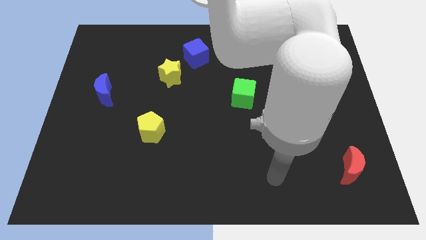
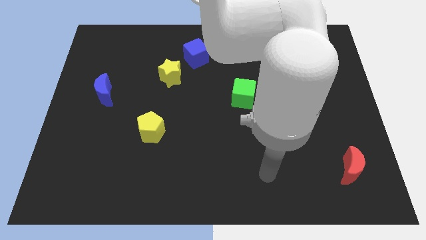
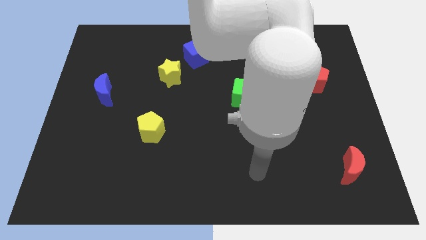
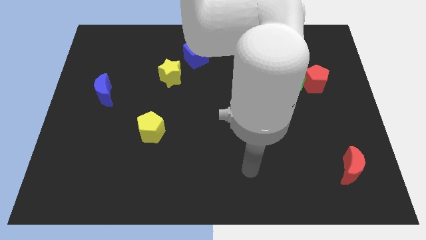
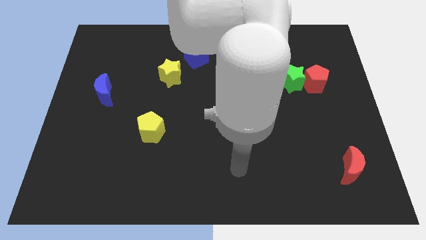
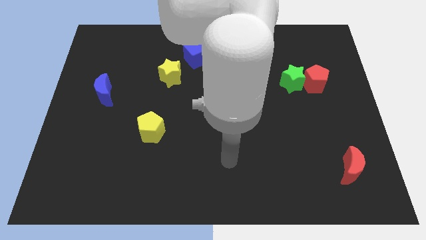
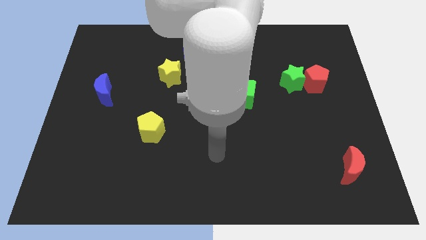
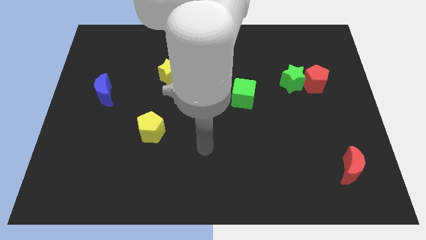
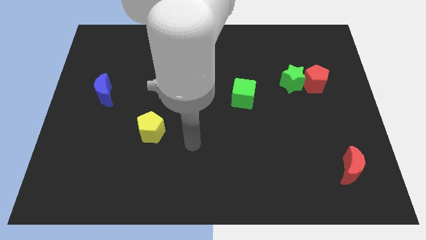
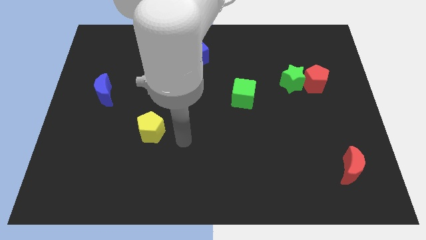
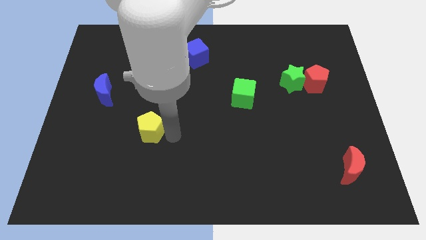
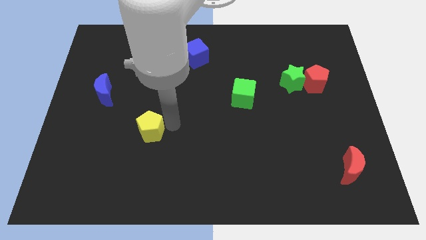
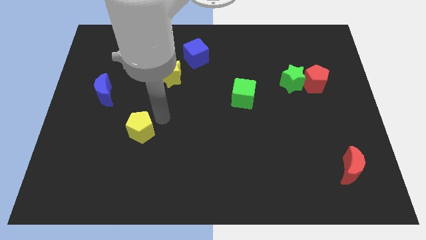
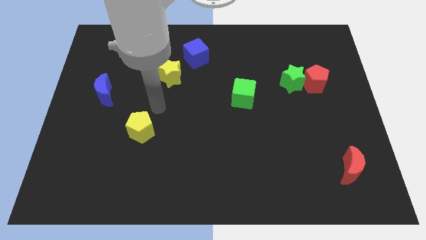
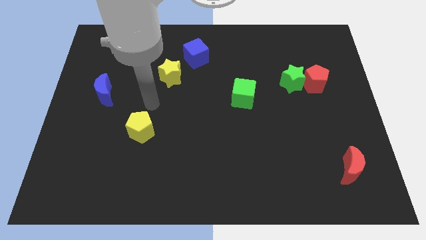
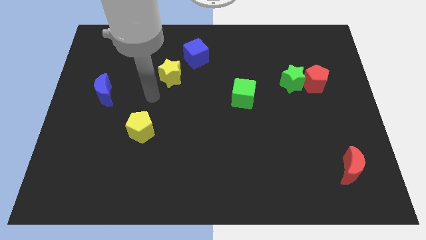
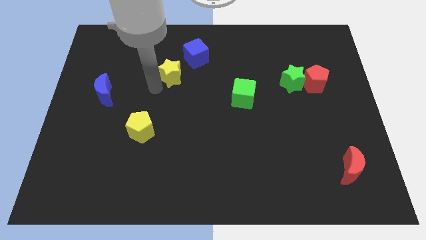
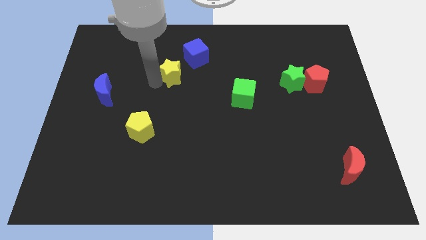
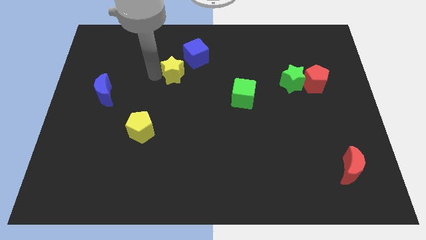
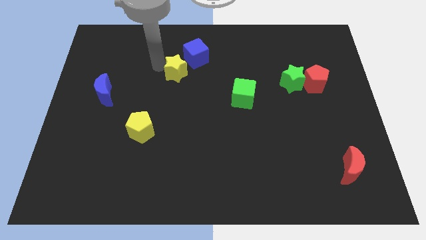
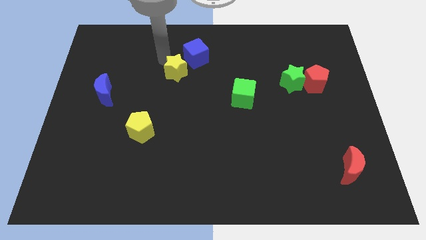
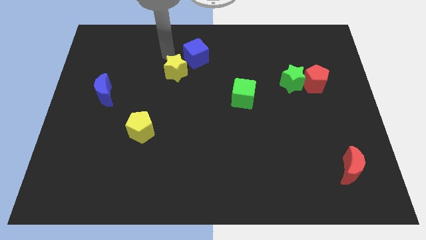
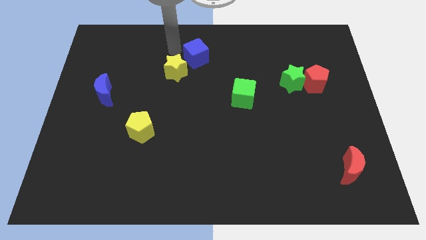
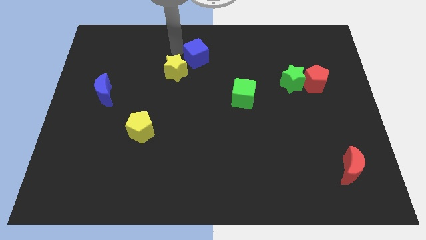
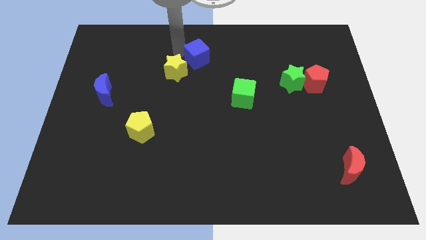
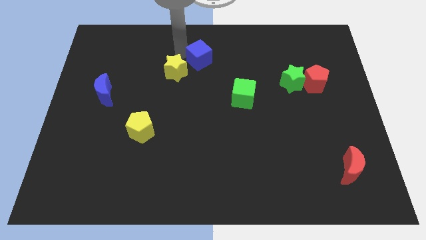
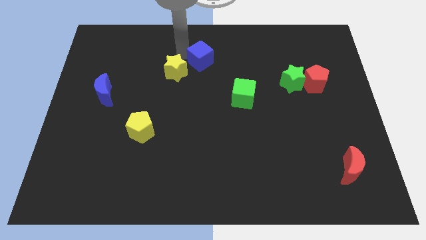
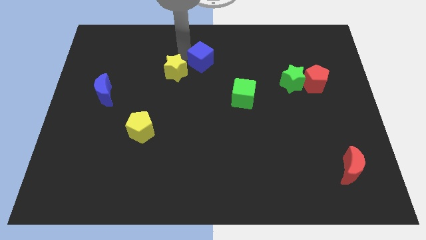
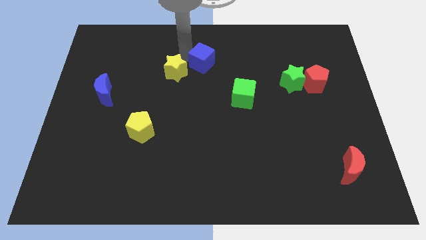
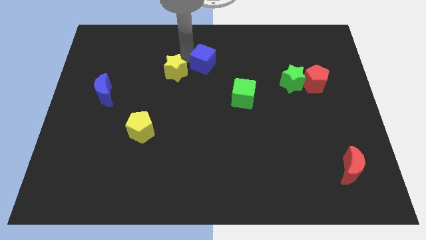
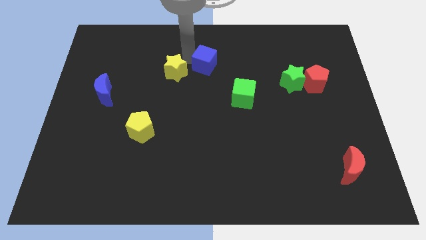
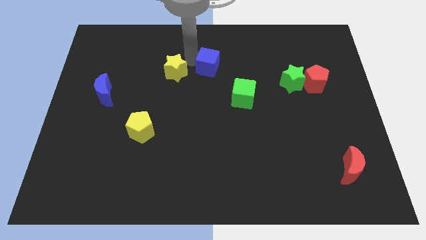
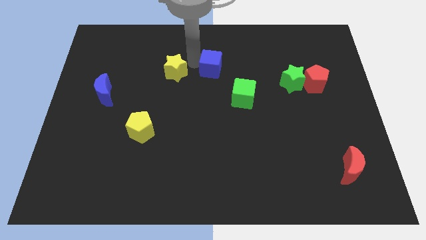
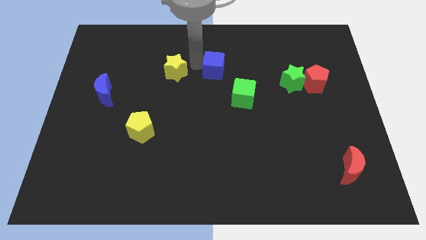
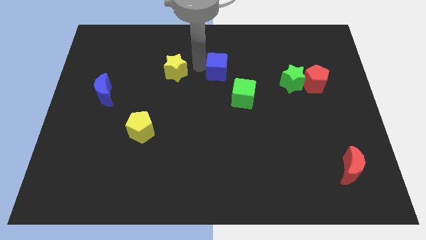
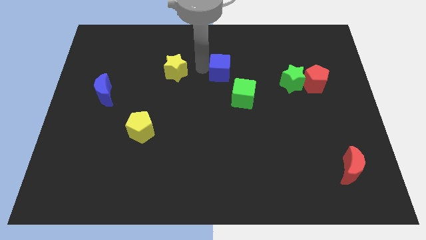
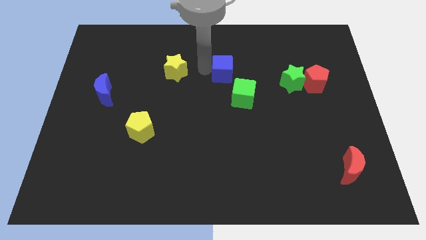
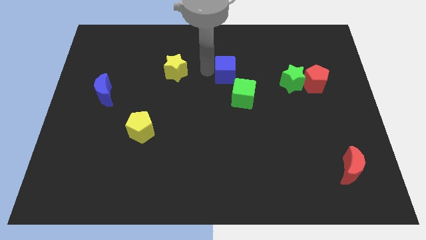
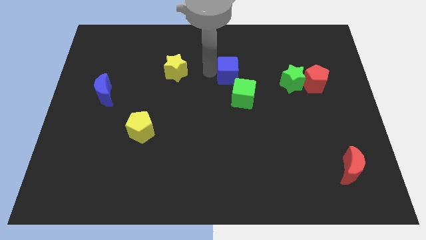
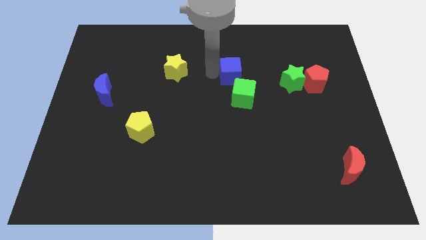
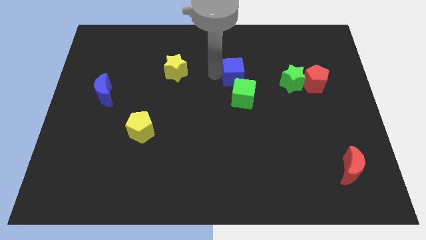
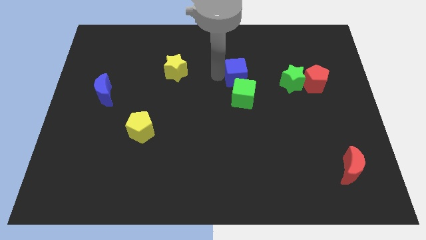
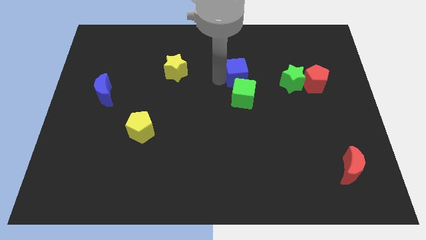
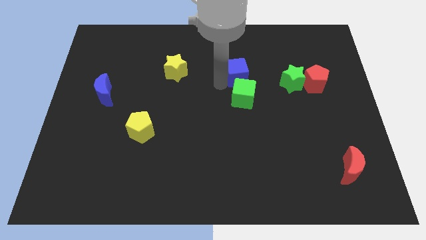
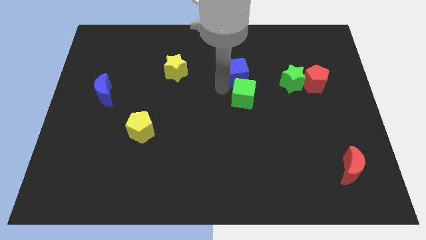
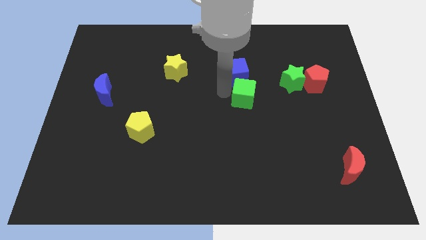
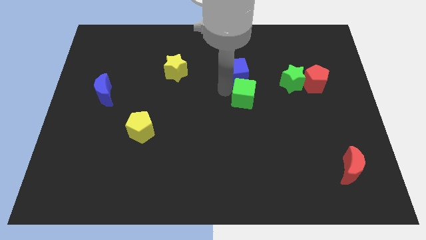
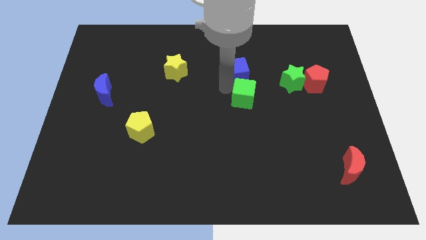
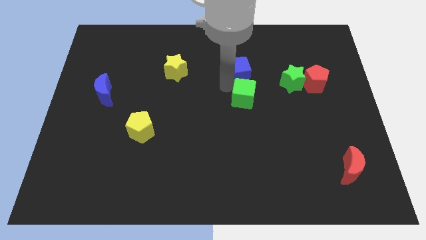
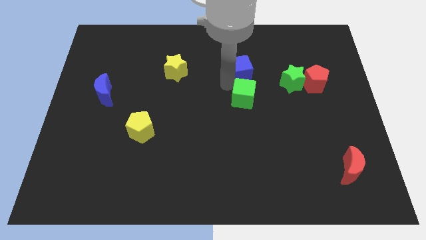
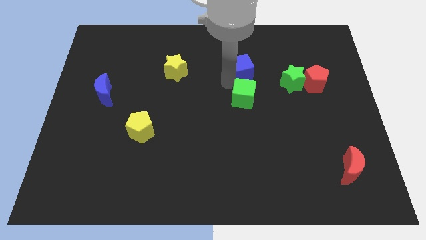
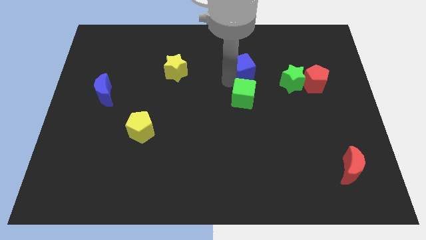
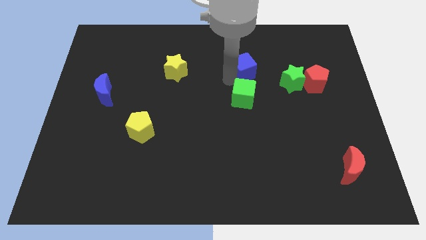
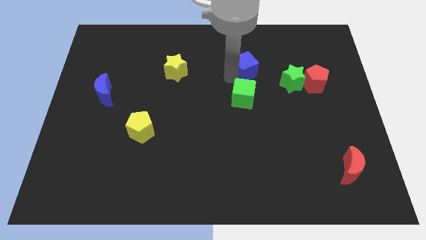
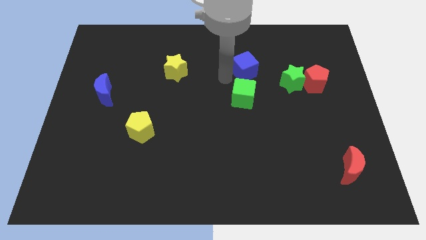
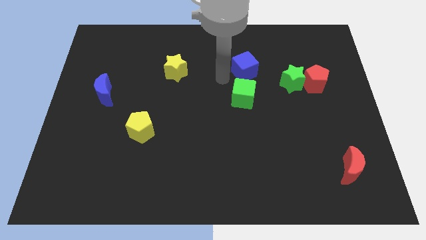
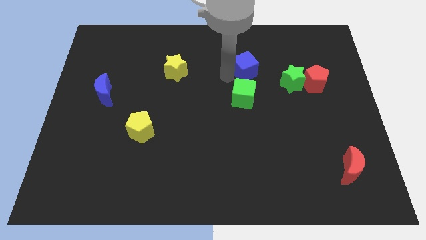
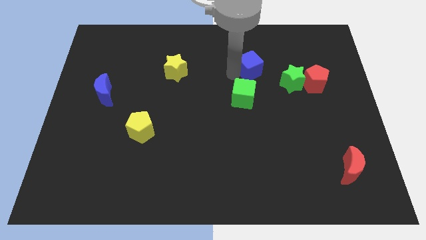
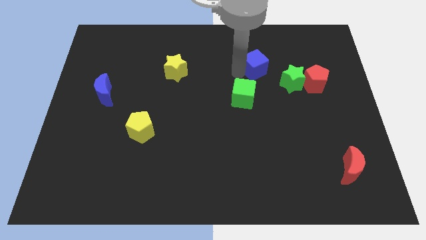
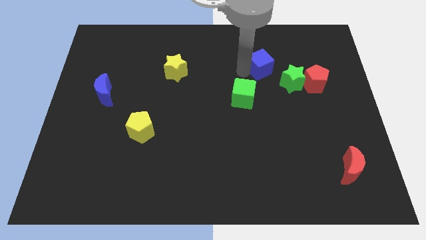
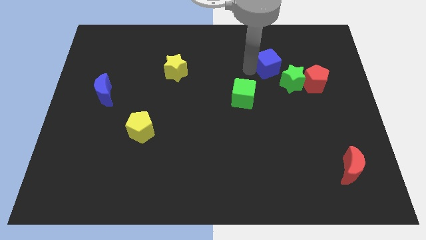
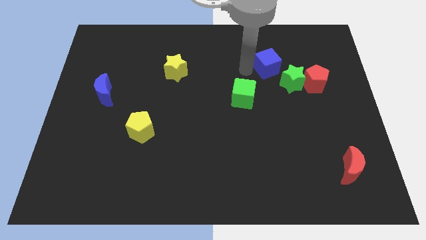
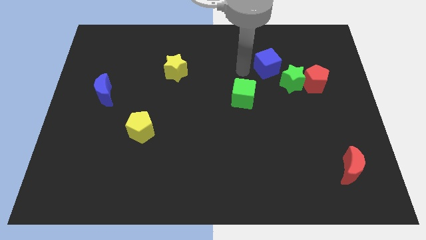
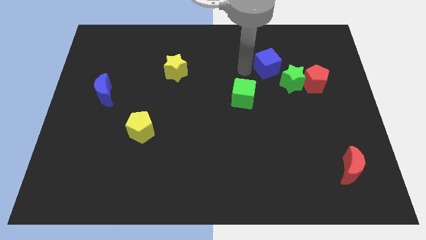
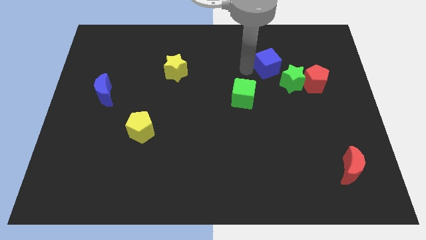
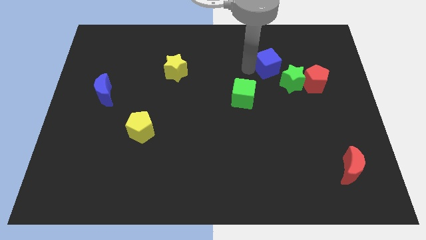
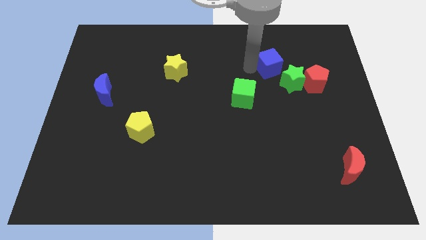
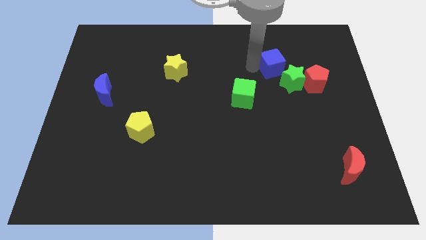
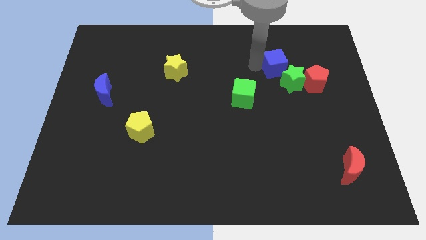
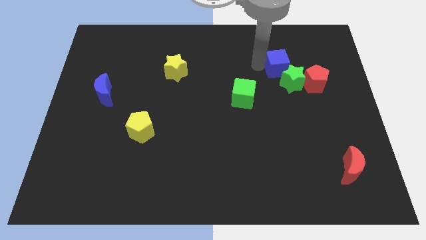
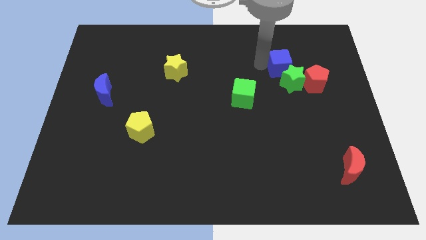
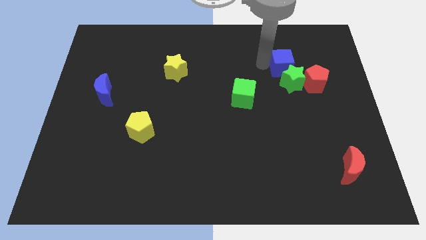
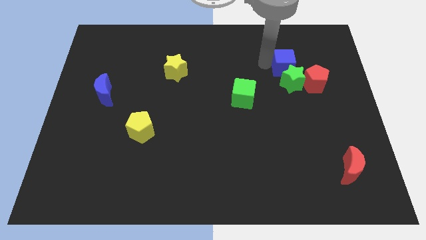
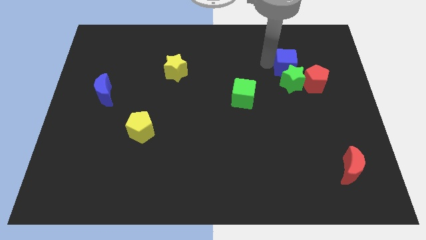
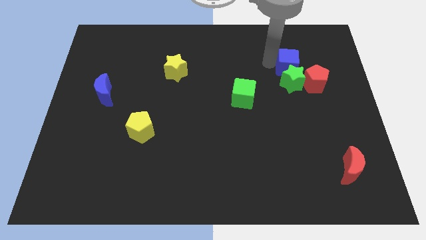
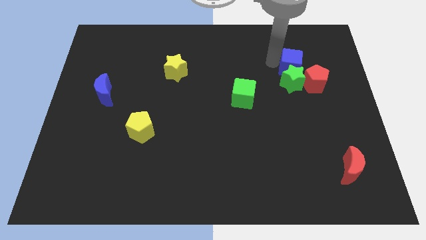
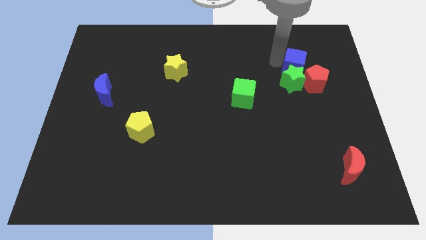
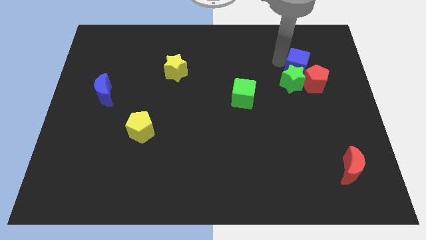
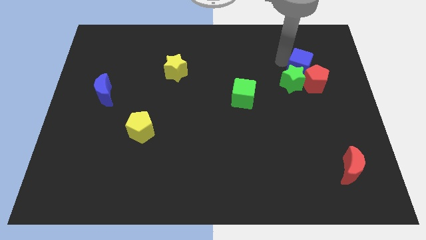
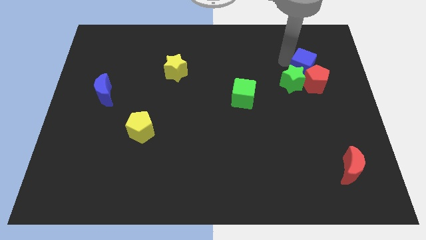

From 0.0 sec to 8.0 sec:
slide the blue cube towards the red pentagon
